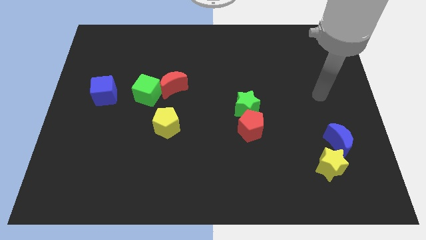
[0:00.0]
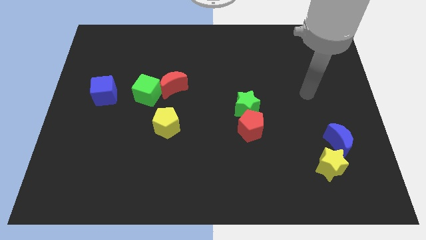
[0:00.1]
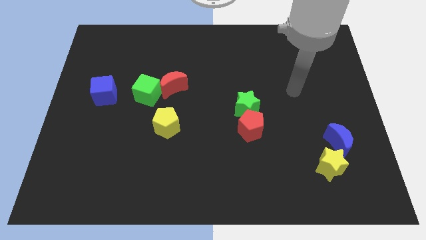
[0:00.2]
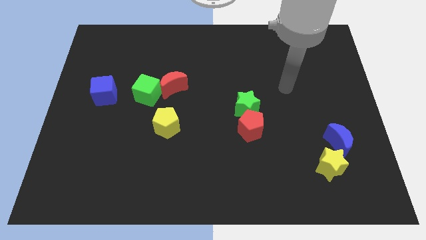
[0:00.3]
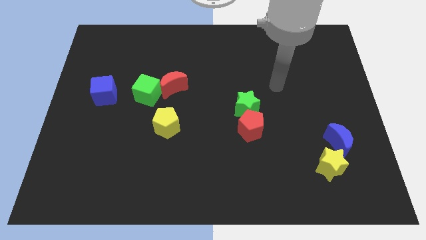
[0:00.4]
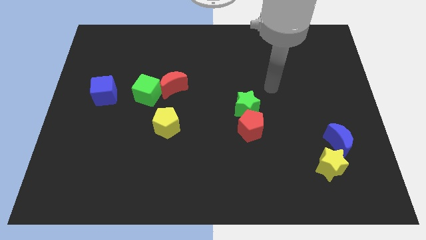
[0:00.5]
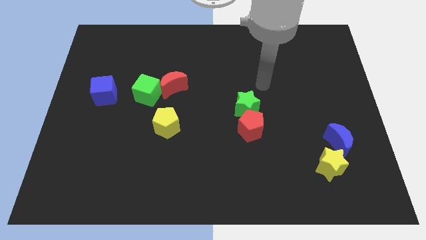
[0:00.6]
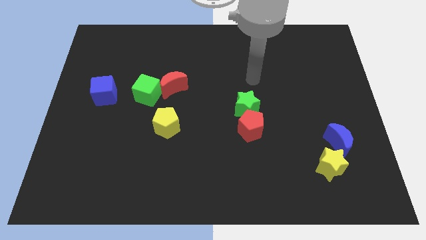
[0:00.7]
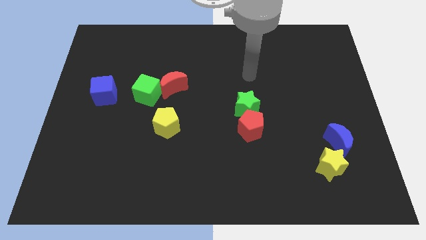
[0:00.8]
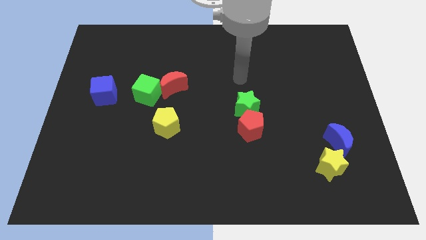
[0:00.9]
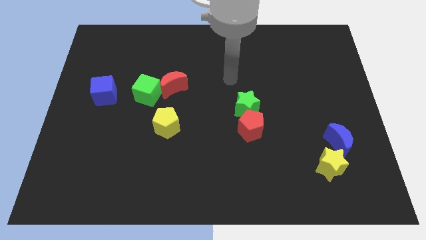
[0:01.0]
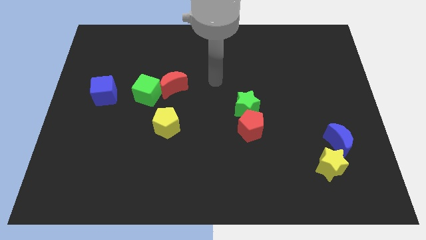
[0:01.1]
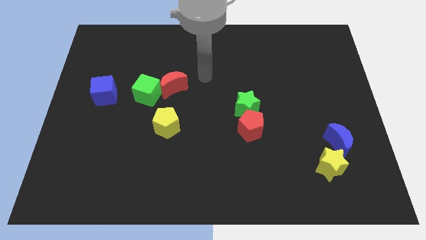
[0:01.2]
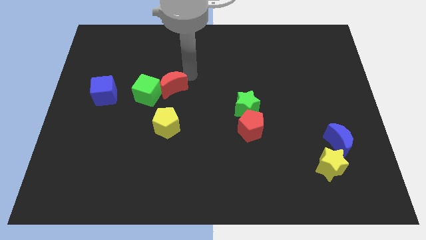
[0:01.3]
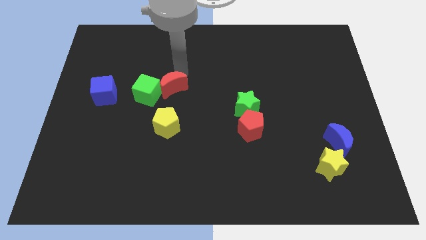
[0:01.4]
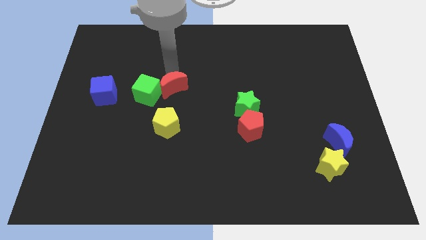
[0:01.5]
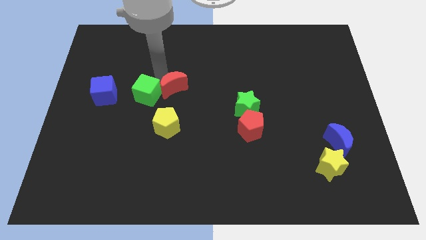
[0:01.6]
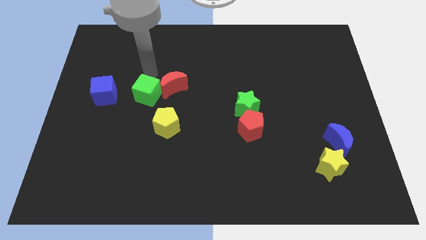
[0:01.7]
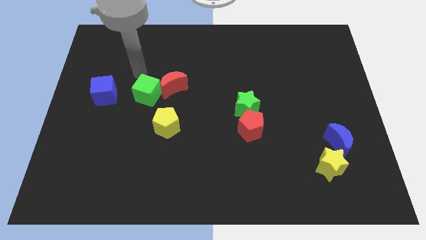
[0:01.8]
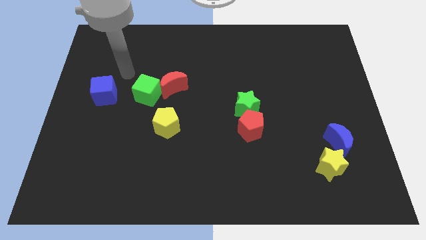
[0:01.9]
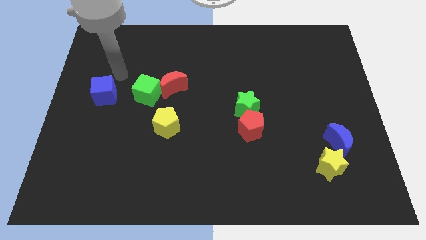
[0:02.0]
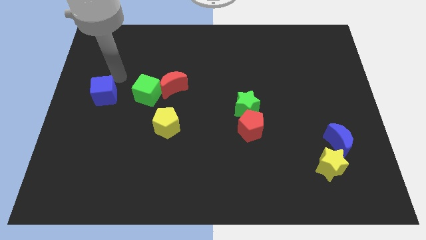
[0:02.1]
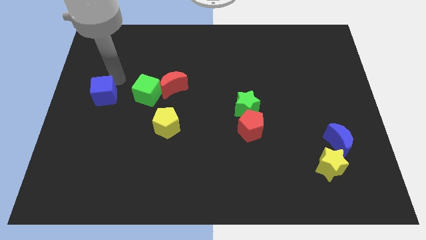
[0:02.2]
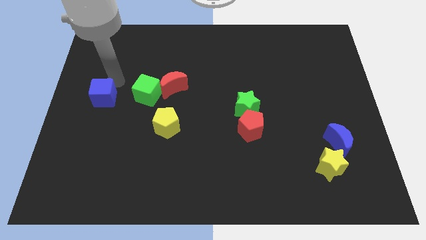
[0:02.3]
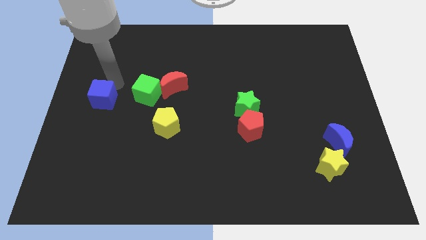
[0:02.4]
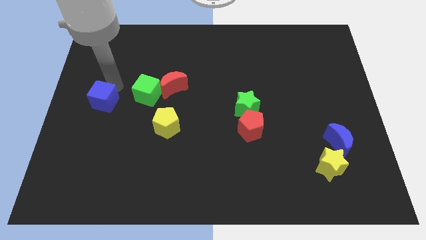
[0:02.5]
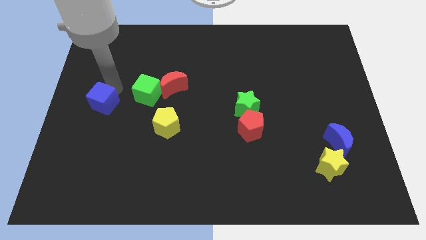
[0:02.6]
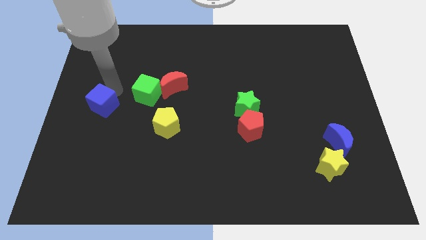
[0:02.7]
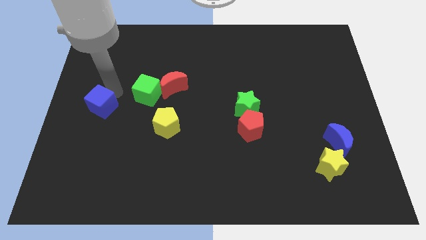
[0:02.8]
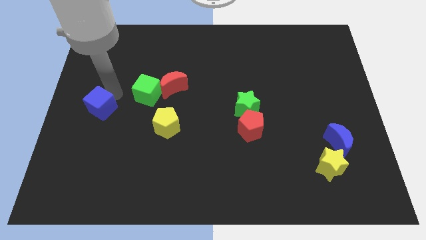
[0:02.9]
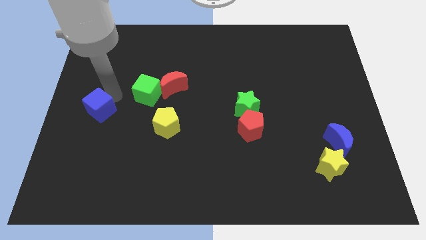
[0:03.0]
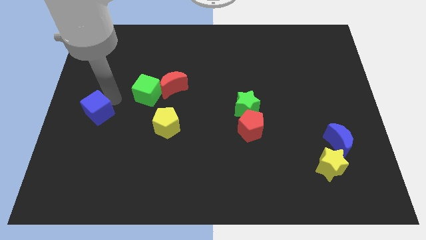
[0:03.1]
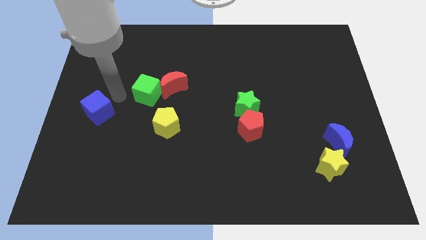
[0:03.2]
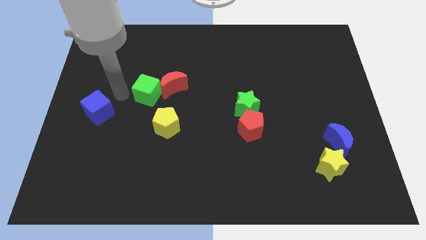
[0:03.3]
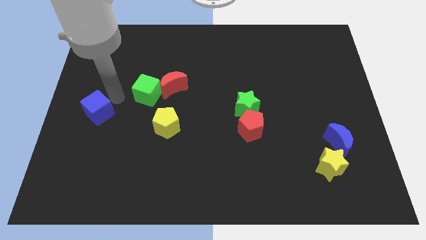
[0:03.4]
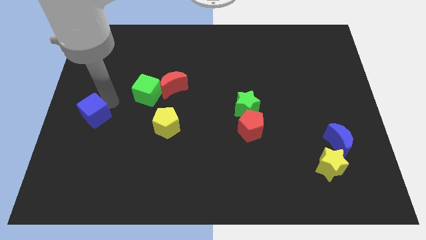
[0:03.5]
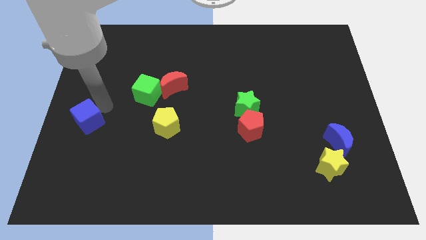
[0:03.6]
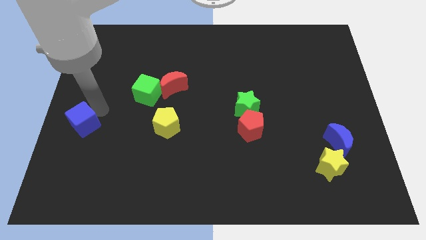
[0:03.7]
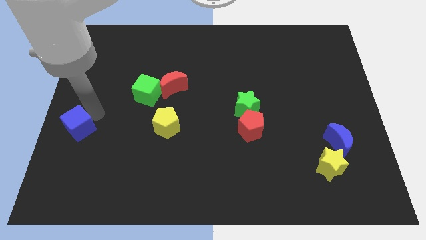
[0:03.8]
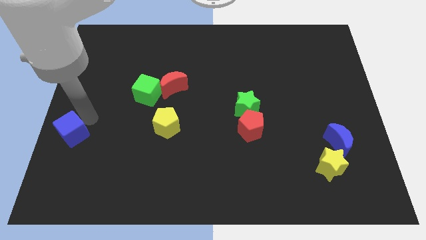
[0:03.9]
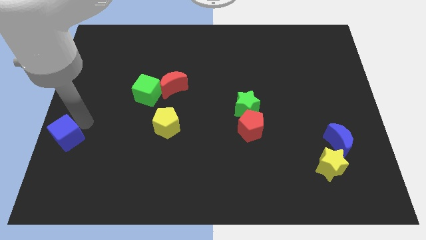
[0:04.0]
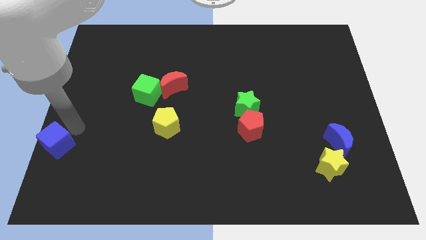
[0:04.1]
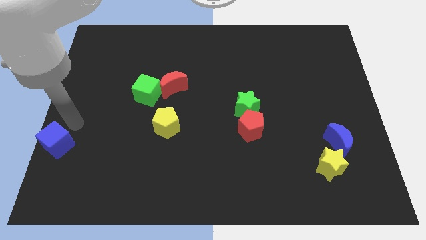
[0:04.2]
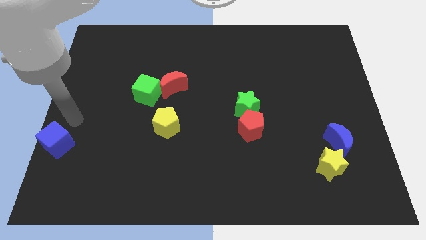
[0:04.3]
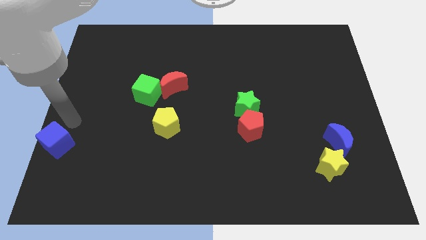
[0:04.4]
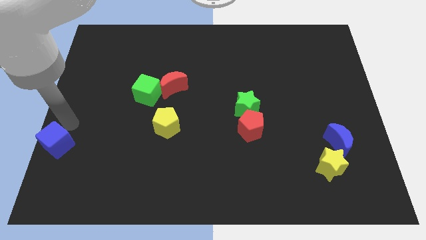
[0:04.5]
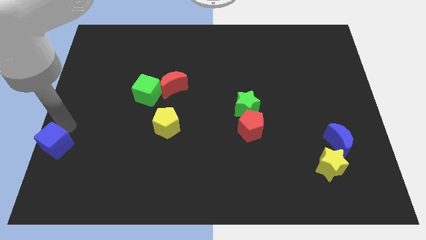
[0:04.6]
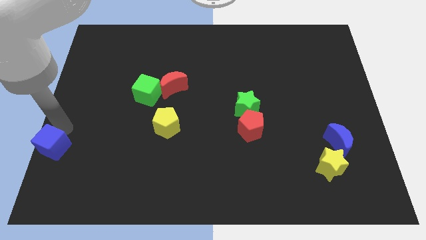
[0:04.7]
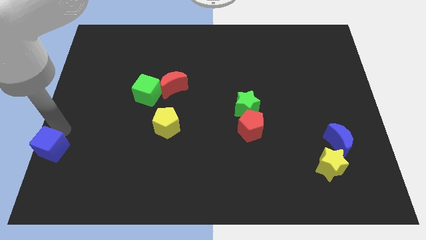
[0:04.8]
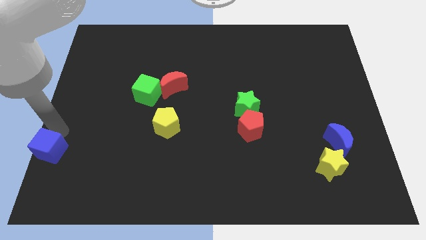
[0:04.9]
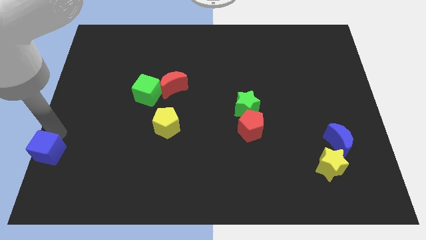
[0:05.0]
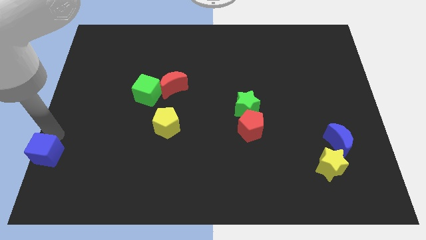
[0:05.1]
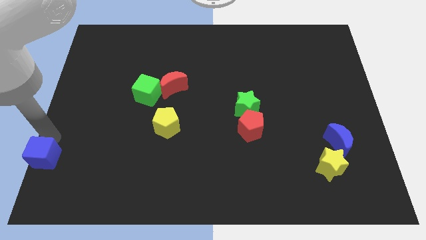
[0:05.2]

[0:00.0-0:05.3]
push the blue cube to the bottom left

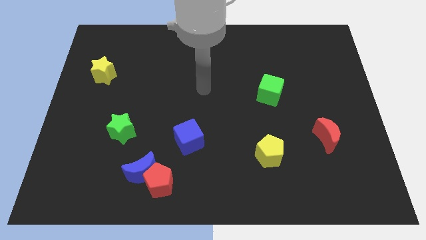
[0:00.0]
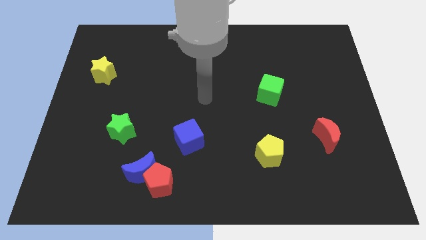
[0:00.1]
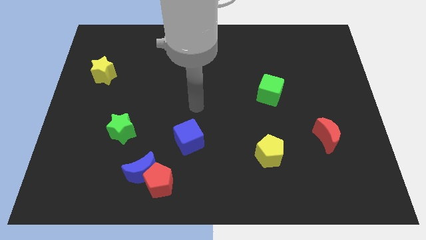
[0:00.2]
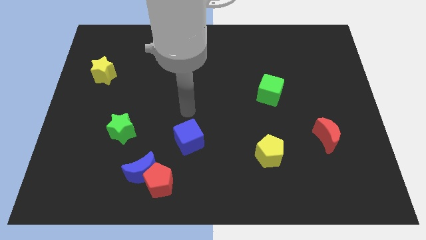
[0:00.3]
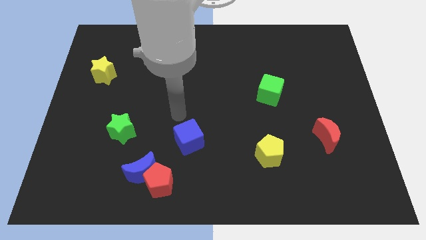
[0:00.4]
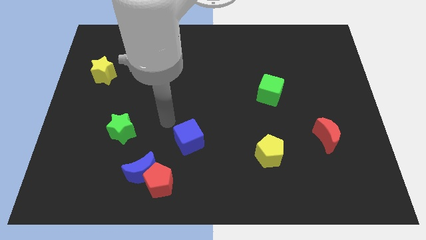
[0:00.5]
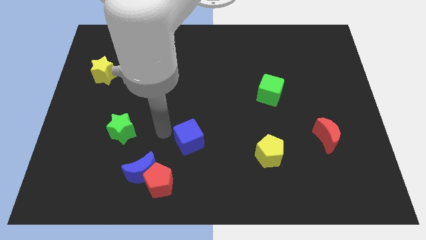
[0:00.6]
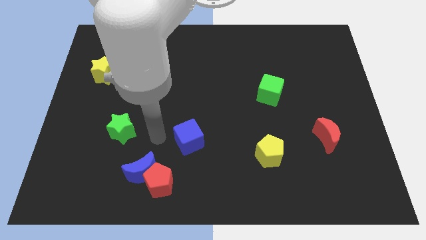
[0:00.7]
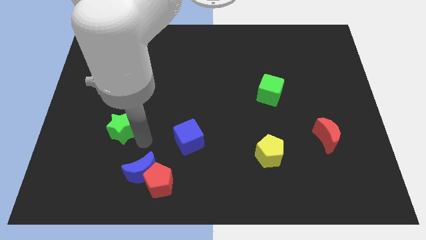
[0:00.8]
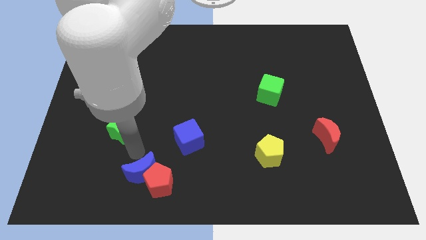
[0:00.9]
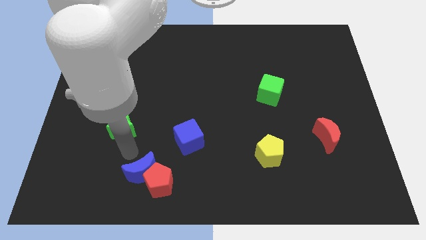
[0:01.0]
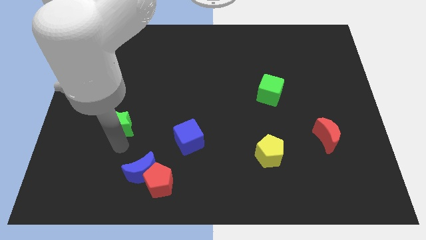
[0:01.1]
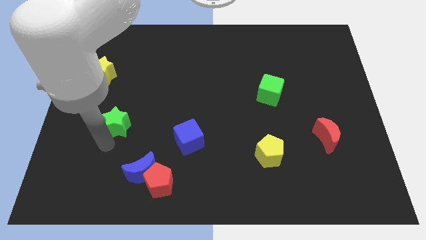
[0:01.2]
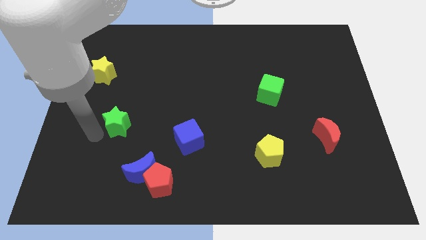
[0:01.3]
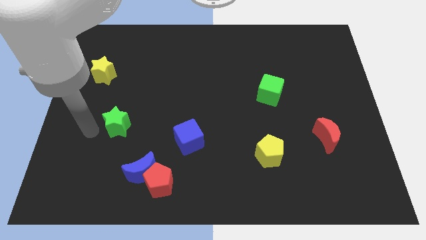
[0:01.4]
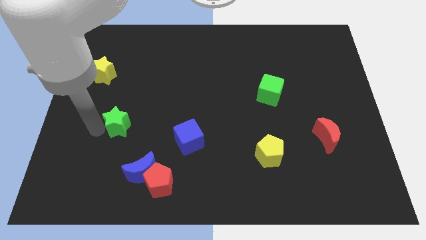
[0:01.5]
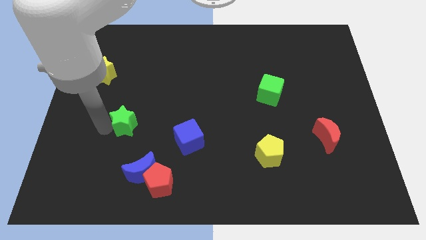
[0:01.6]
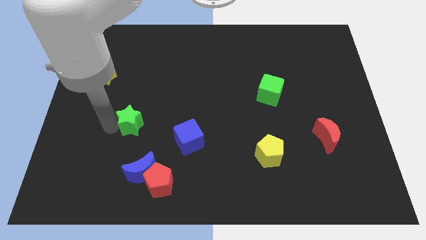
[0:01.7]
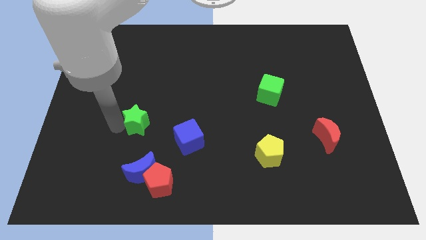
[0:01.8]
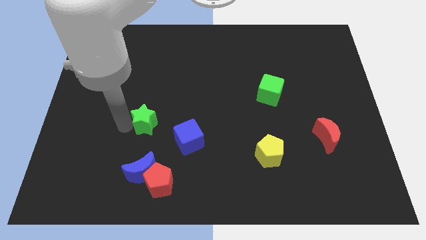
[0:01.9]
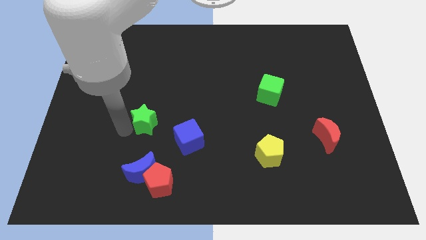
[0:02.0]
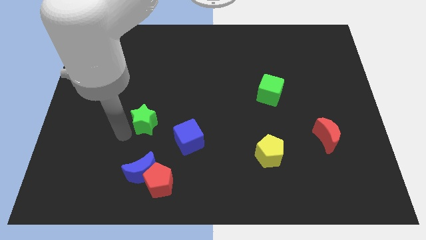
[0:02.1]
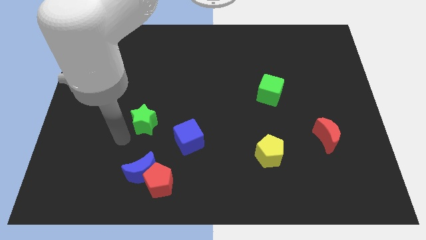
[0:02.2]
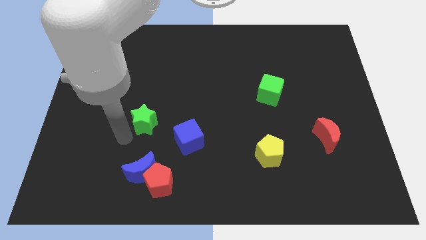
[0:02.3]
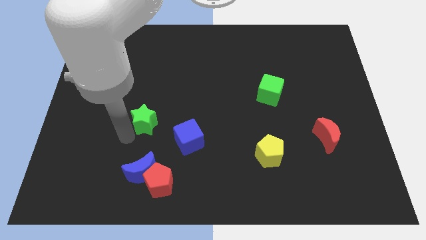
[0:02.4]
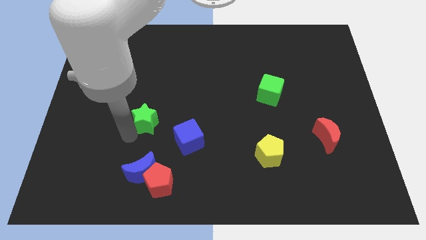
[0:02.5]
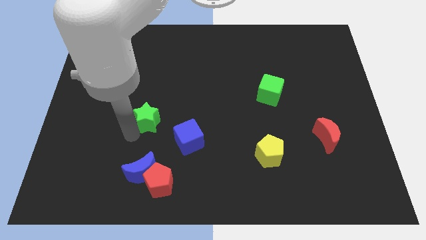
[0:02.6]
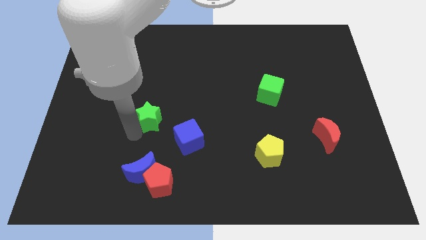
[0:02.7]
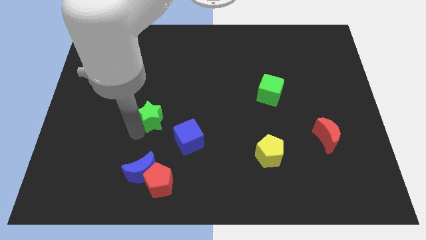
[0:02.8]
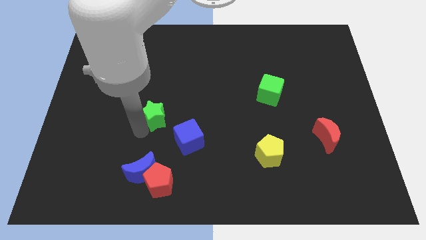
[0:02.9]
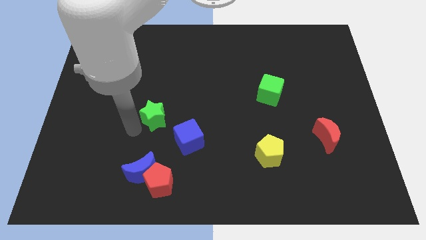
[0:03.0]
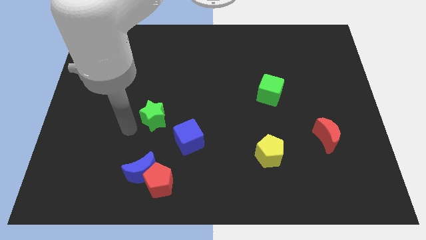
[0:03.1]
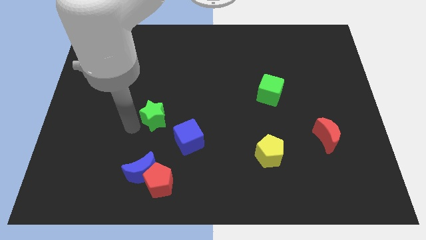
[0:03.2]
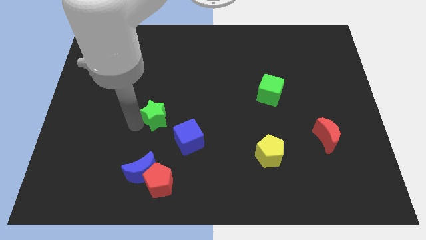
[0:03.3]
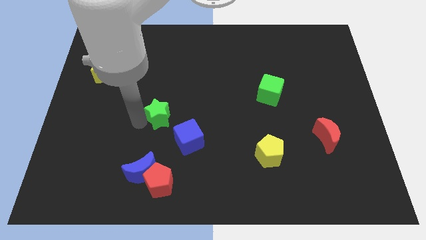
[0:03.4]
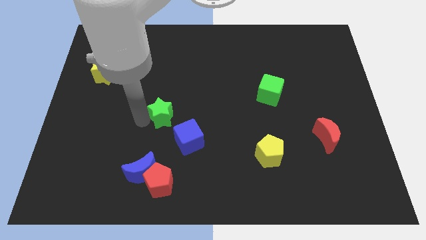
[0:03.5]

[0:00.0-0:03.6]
push the green star to the middle of the board
